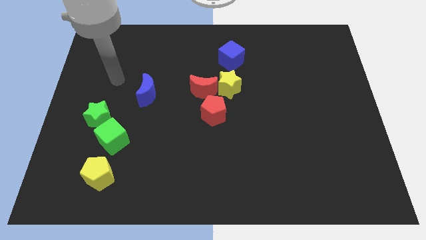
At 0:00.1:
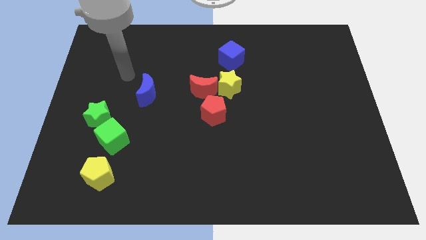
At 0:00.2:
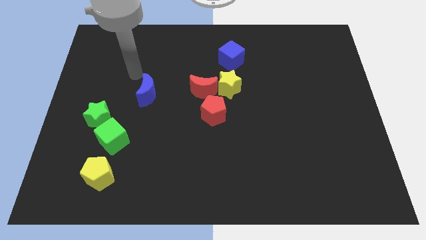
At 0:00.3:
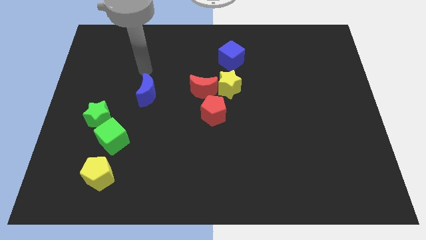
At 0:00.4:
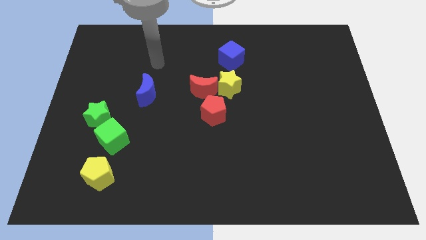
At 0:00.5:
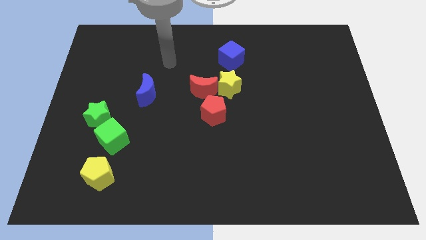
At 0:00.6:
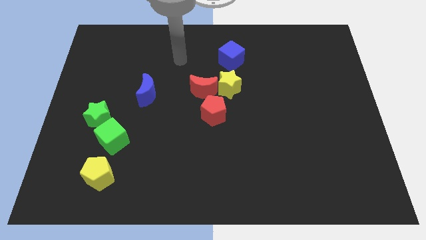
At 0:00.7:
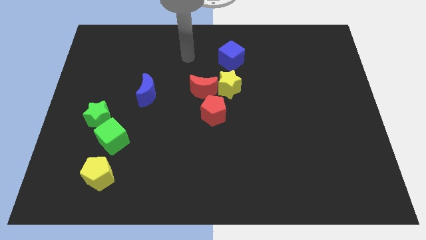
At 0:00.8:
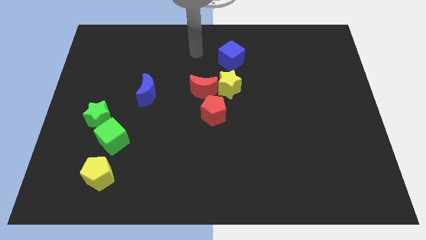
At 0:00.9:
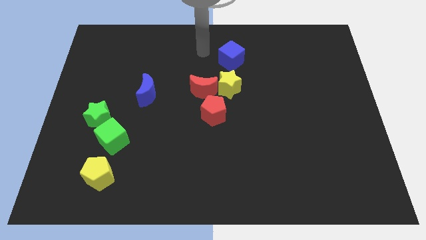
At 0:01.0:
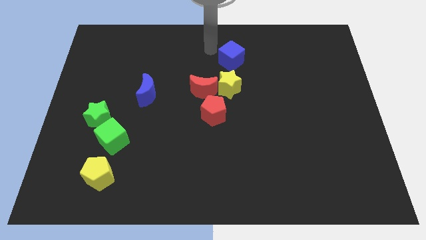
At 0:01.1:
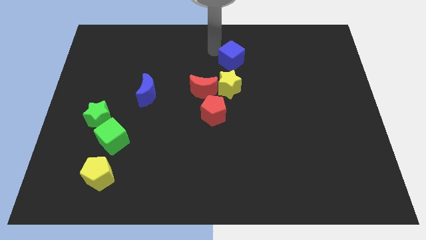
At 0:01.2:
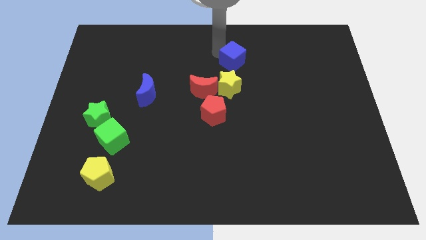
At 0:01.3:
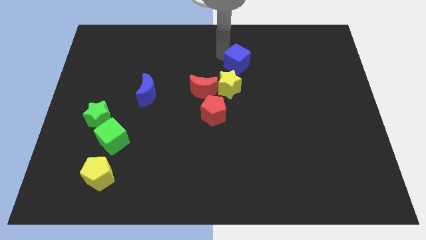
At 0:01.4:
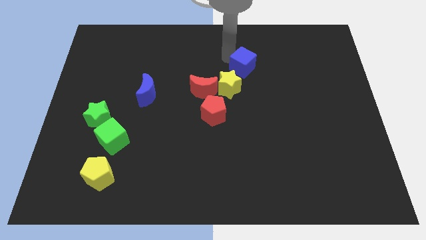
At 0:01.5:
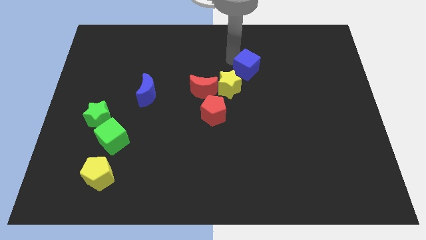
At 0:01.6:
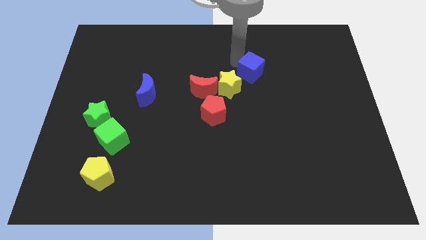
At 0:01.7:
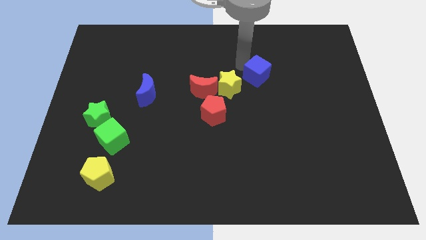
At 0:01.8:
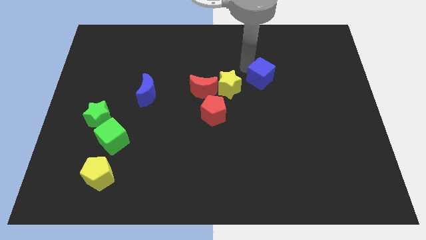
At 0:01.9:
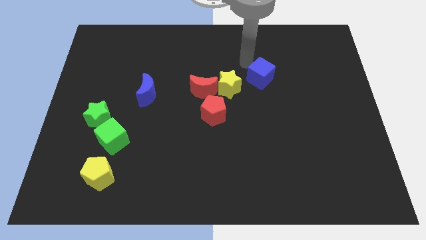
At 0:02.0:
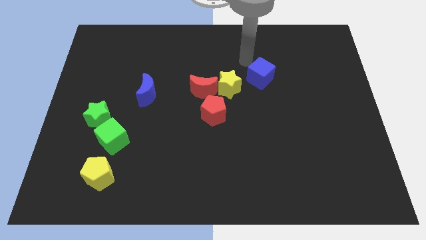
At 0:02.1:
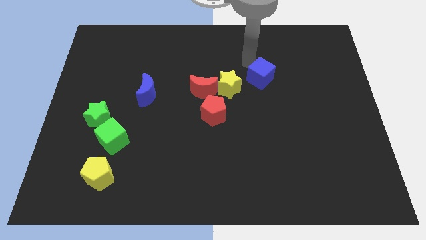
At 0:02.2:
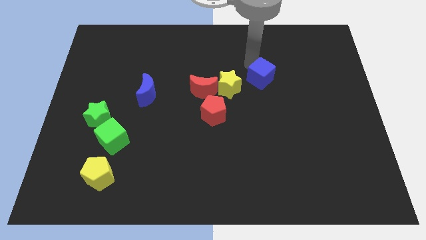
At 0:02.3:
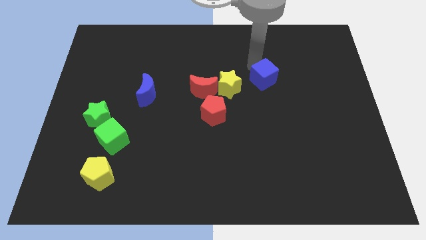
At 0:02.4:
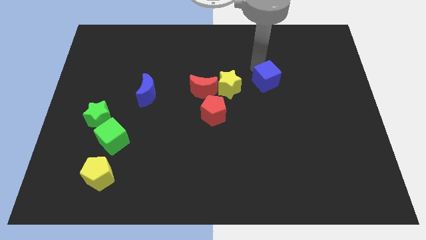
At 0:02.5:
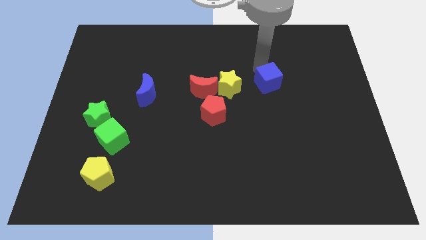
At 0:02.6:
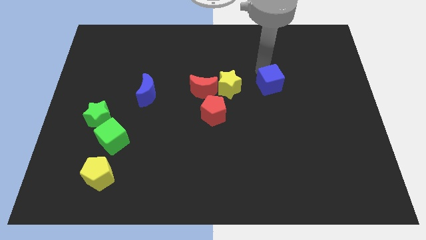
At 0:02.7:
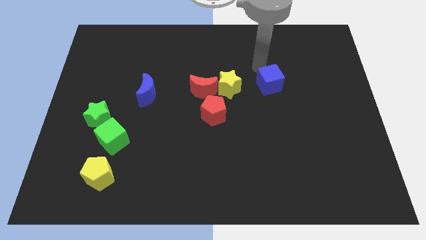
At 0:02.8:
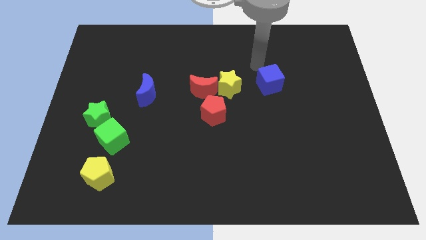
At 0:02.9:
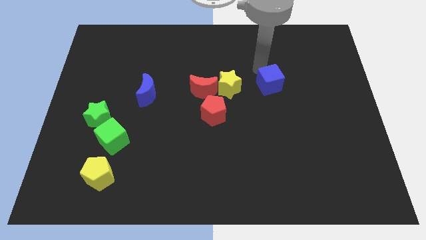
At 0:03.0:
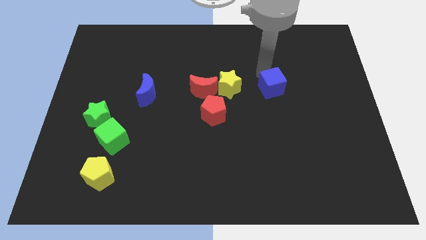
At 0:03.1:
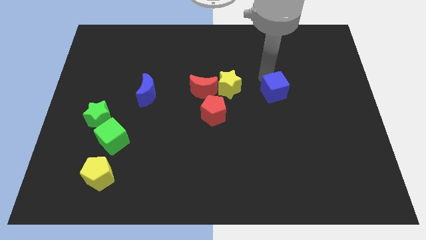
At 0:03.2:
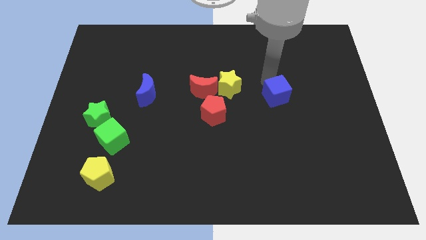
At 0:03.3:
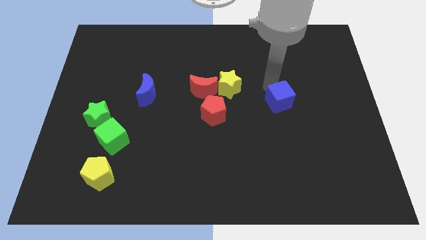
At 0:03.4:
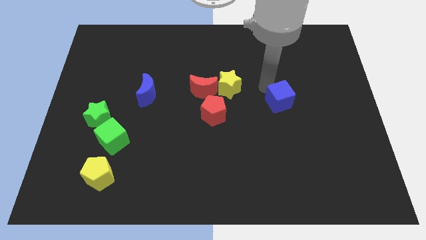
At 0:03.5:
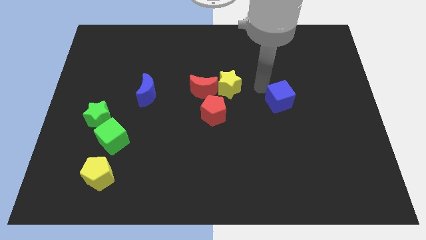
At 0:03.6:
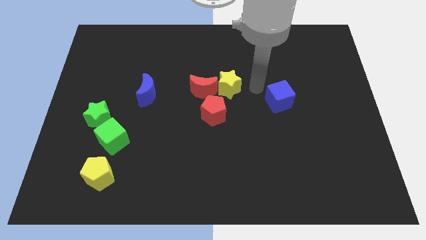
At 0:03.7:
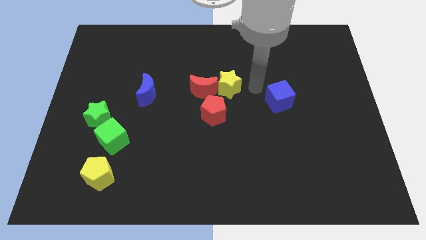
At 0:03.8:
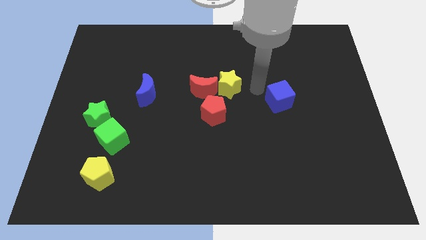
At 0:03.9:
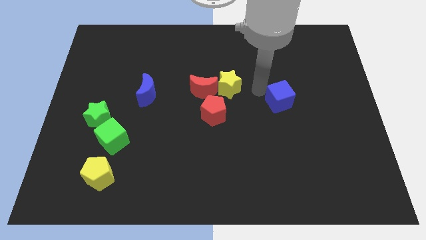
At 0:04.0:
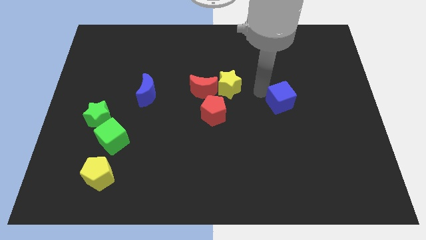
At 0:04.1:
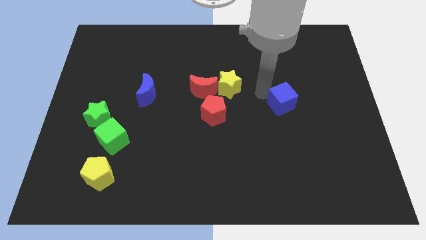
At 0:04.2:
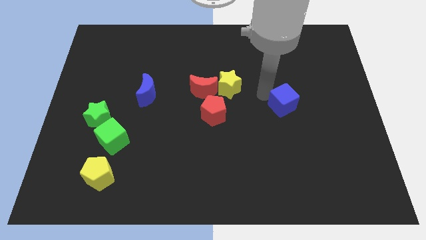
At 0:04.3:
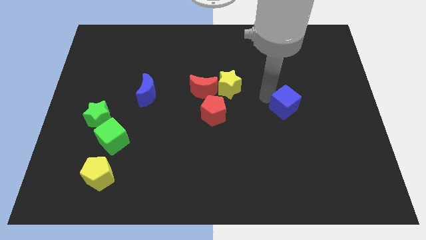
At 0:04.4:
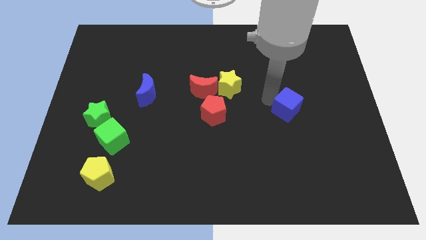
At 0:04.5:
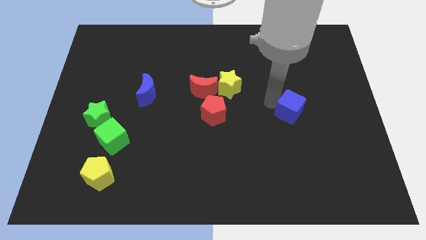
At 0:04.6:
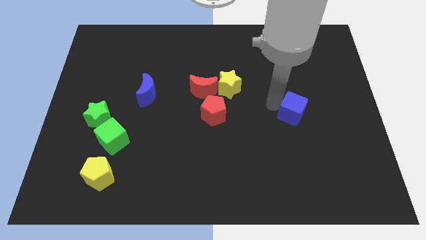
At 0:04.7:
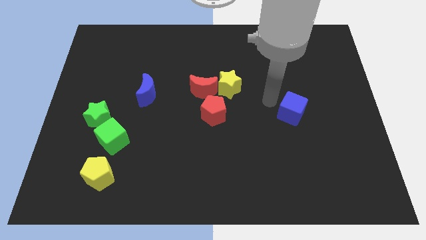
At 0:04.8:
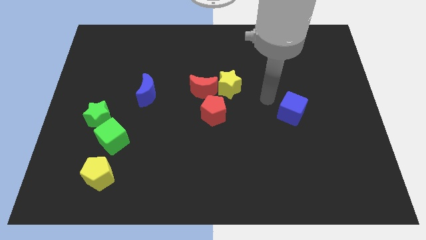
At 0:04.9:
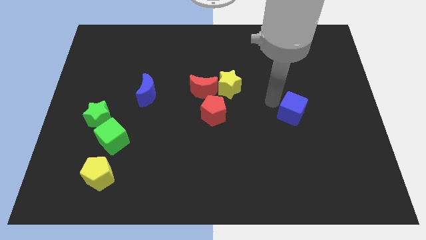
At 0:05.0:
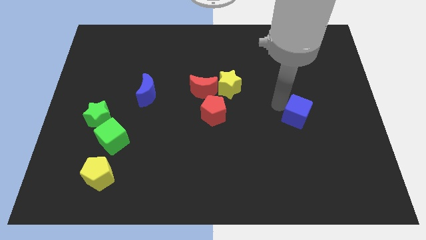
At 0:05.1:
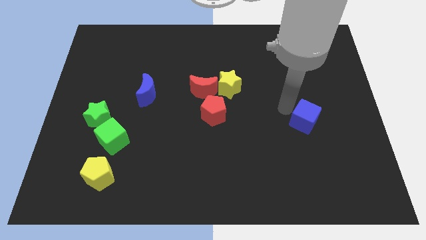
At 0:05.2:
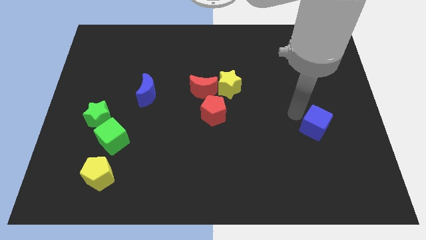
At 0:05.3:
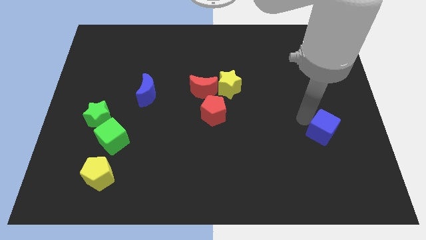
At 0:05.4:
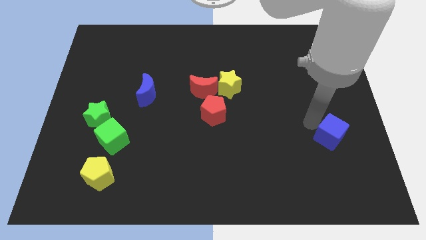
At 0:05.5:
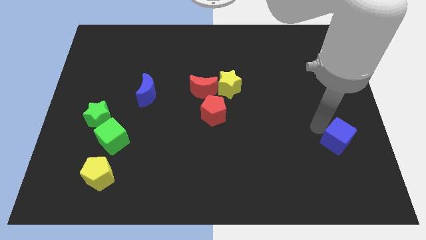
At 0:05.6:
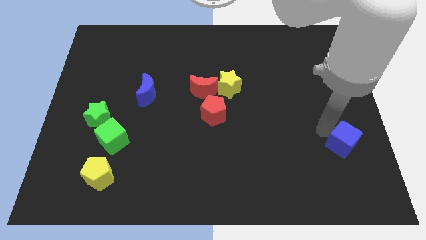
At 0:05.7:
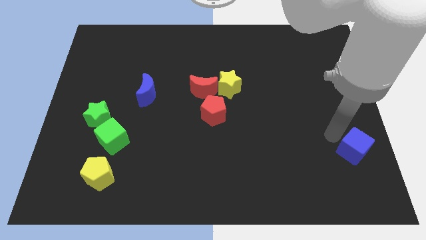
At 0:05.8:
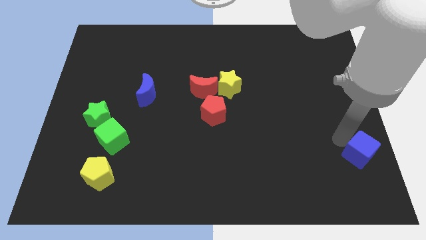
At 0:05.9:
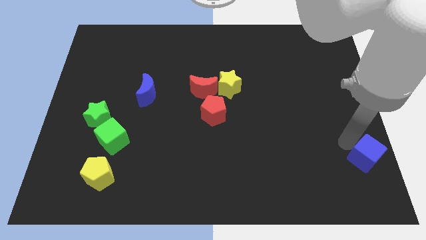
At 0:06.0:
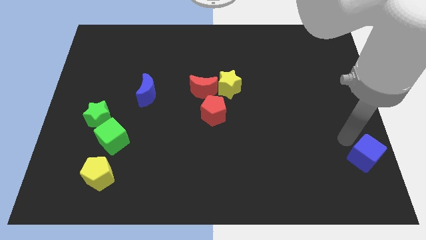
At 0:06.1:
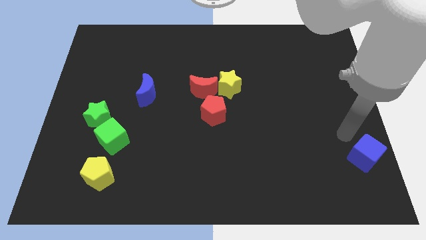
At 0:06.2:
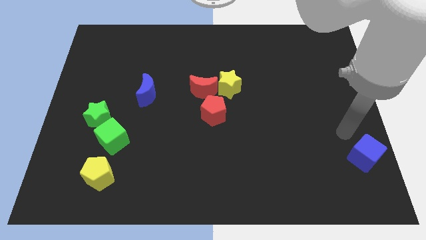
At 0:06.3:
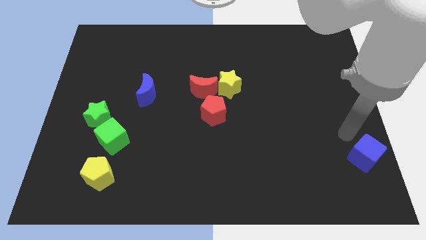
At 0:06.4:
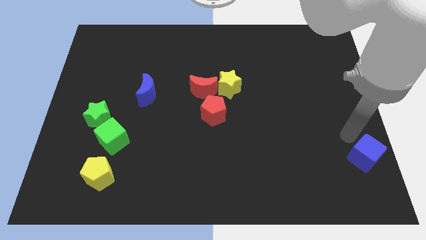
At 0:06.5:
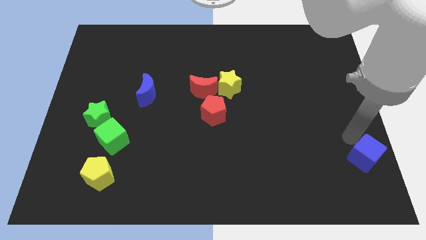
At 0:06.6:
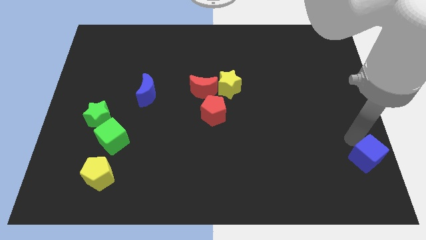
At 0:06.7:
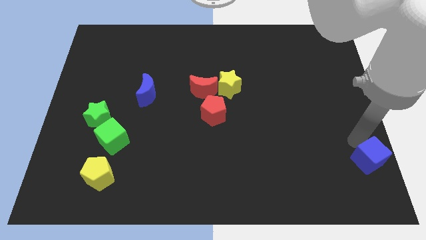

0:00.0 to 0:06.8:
move the blue cube to the lower right corner

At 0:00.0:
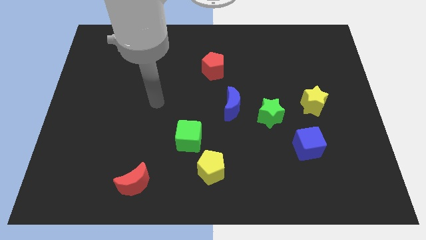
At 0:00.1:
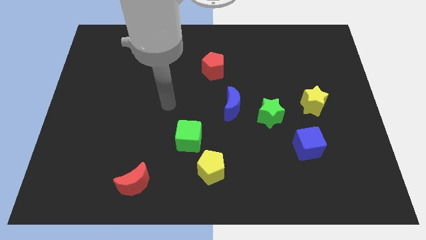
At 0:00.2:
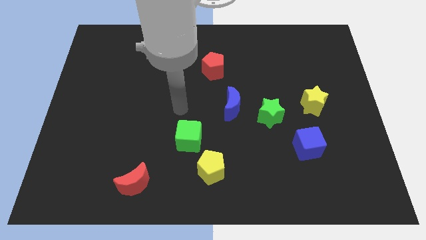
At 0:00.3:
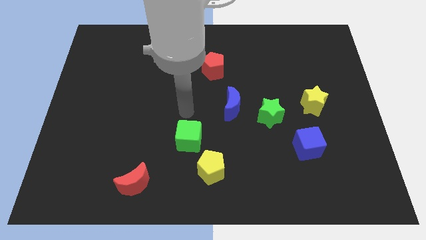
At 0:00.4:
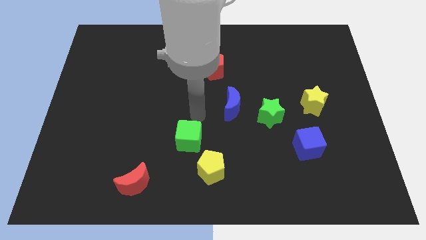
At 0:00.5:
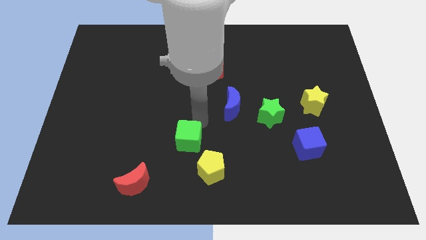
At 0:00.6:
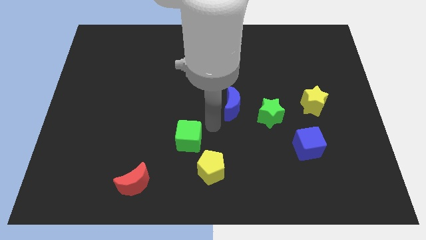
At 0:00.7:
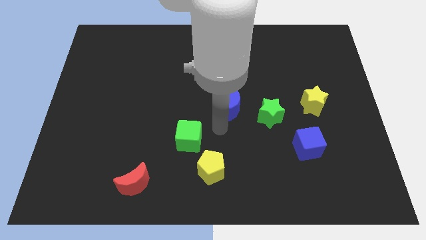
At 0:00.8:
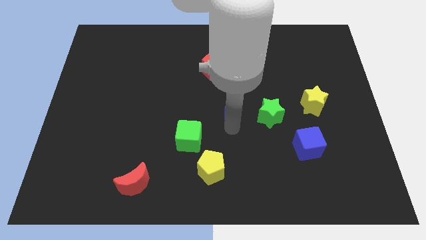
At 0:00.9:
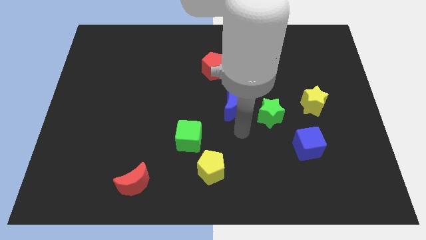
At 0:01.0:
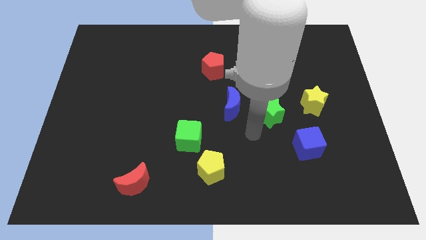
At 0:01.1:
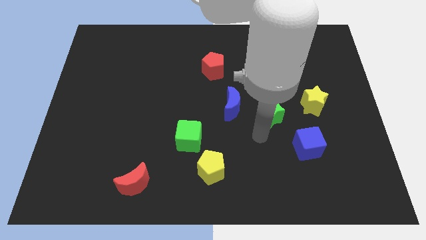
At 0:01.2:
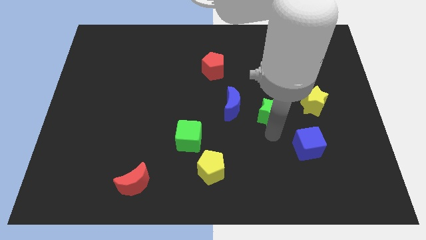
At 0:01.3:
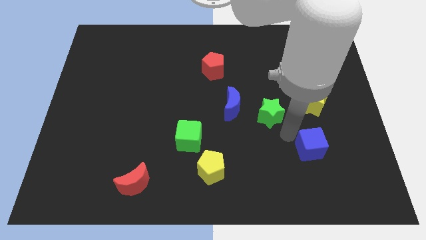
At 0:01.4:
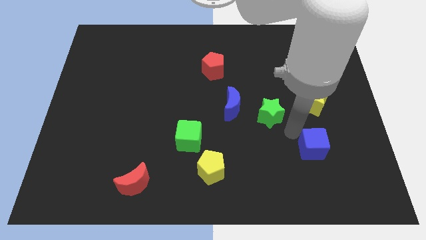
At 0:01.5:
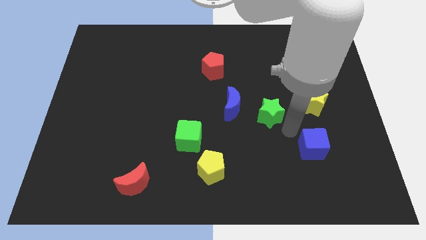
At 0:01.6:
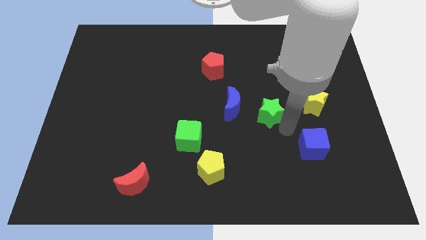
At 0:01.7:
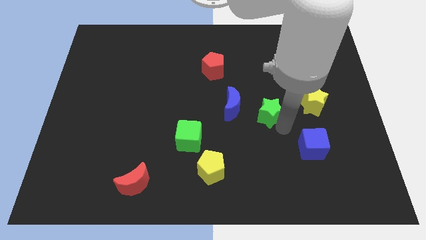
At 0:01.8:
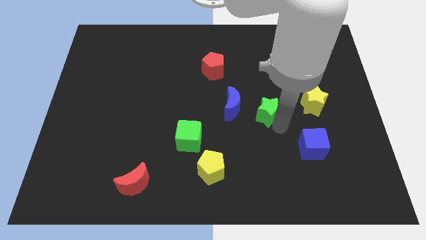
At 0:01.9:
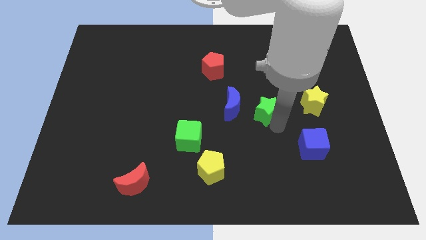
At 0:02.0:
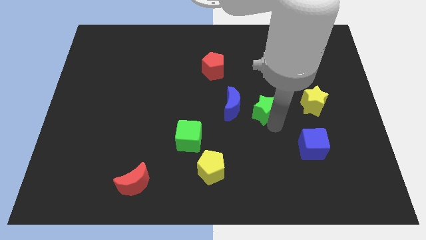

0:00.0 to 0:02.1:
put the green star to the middle
